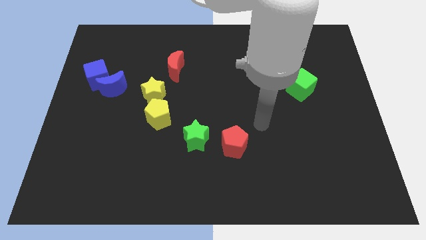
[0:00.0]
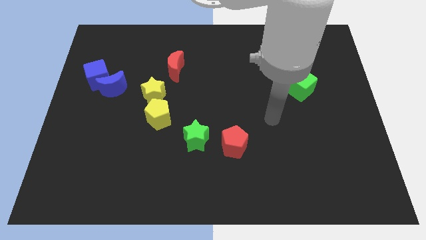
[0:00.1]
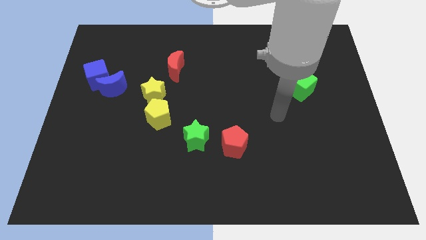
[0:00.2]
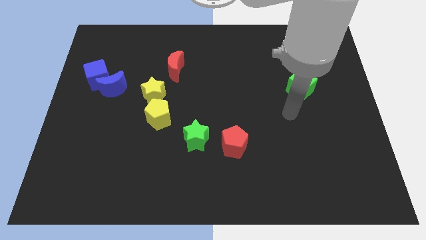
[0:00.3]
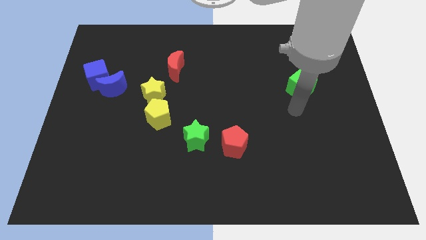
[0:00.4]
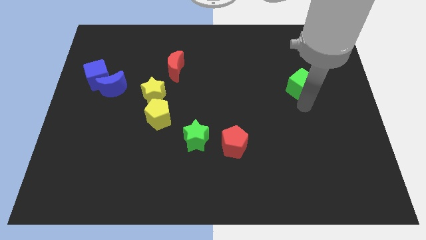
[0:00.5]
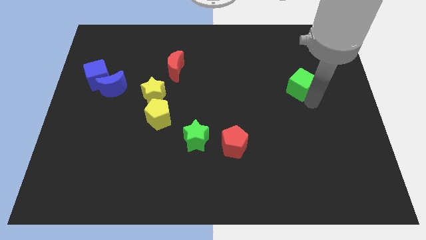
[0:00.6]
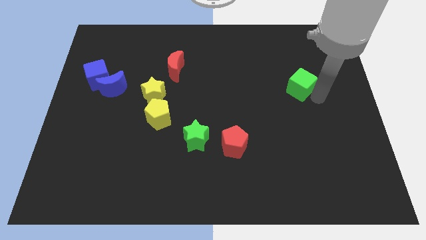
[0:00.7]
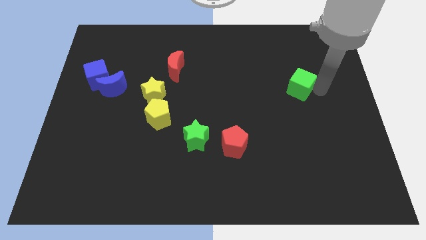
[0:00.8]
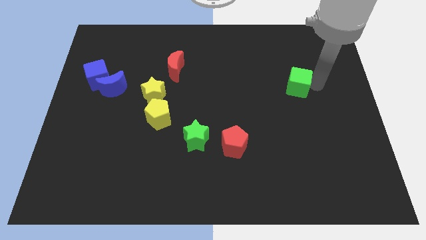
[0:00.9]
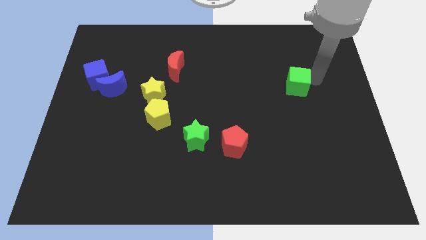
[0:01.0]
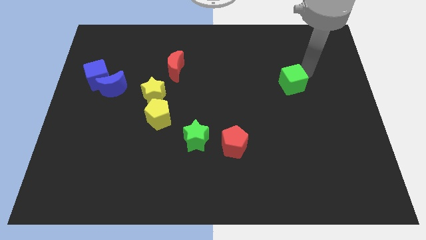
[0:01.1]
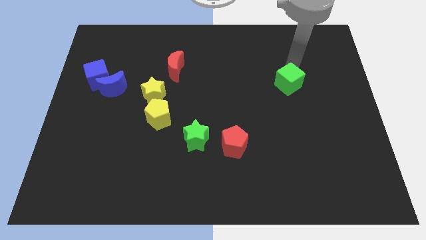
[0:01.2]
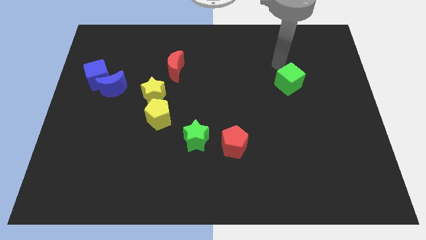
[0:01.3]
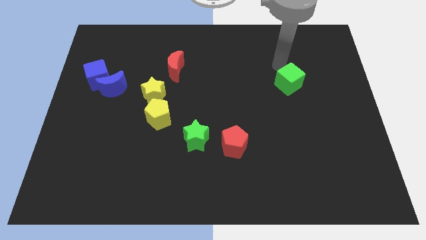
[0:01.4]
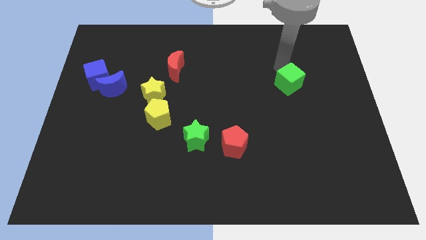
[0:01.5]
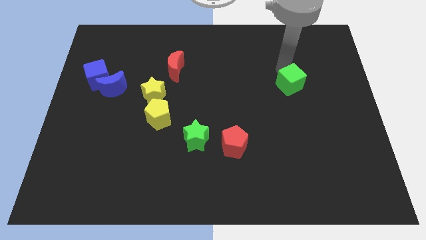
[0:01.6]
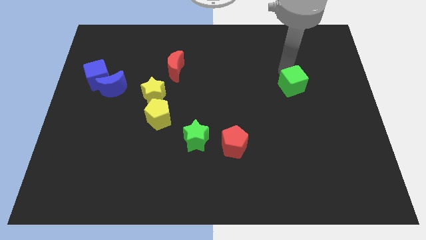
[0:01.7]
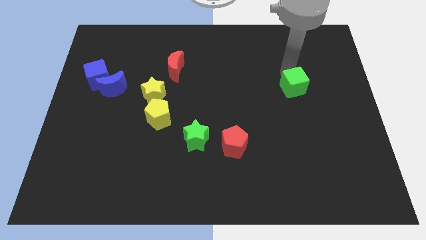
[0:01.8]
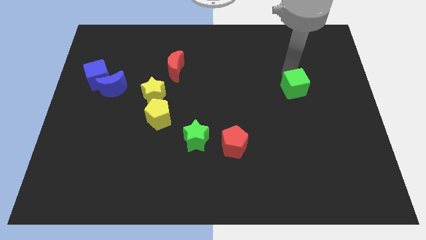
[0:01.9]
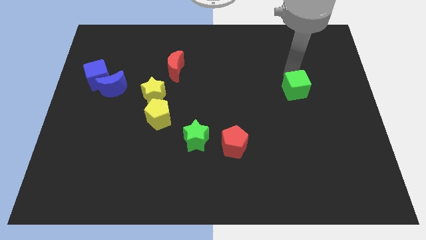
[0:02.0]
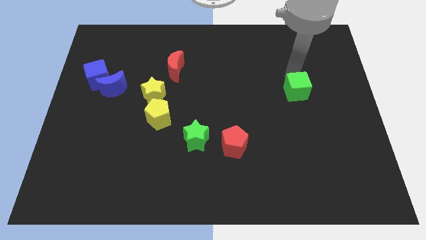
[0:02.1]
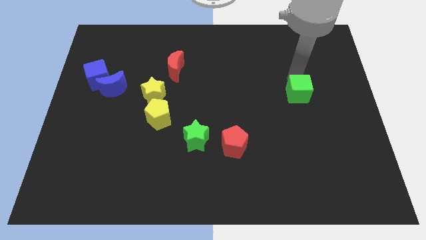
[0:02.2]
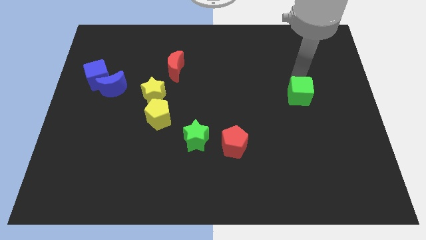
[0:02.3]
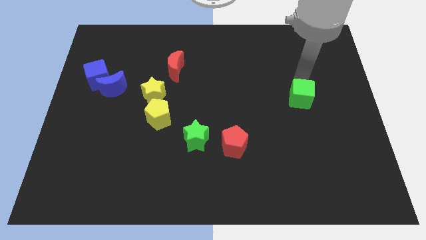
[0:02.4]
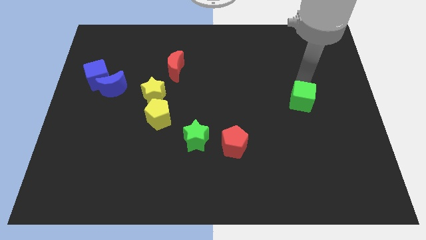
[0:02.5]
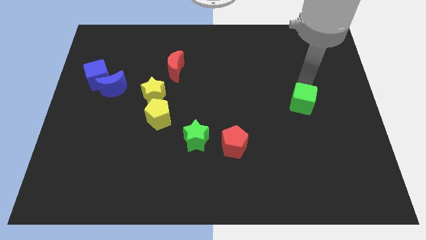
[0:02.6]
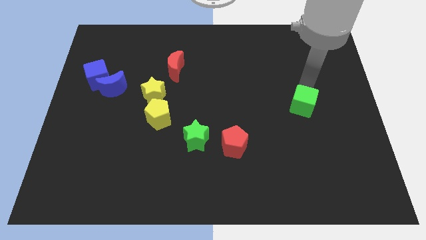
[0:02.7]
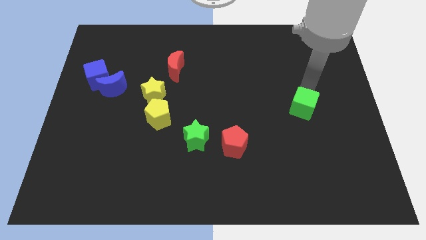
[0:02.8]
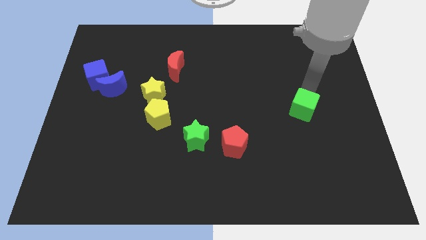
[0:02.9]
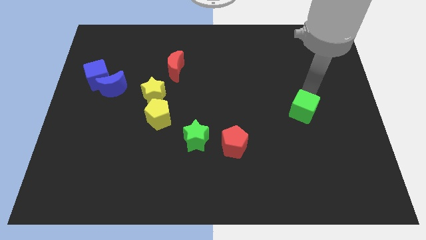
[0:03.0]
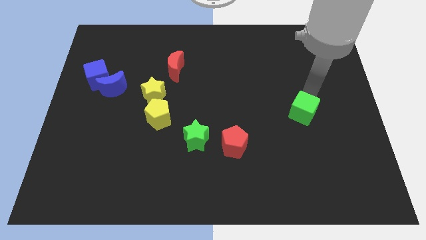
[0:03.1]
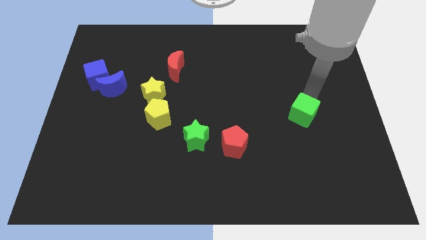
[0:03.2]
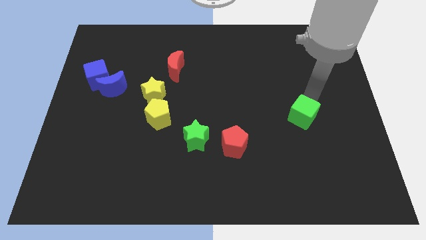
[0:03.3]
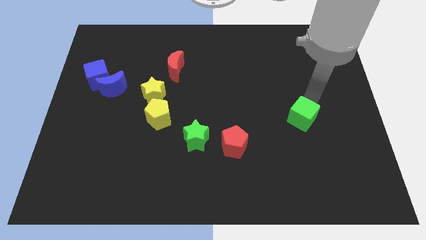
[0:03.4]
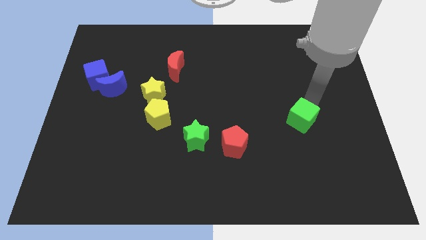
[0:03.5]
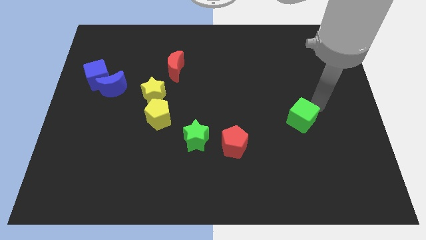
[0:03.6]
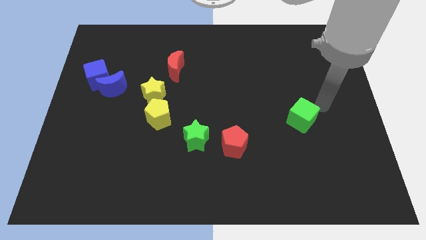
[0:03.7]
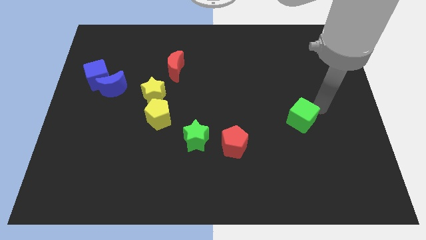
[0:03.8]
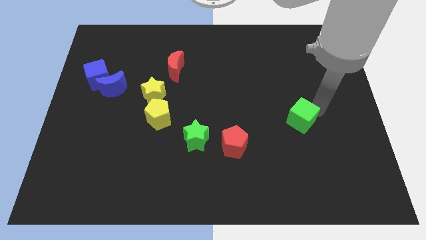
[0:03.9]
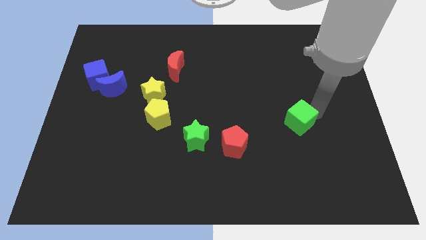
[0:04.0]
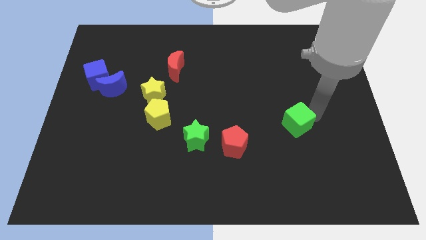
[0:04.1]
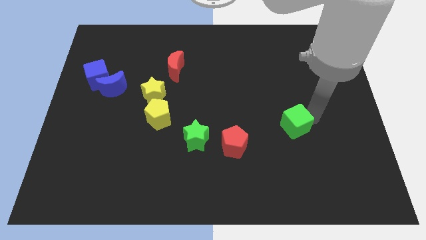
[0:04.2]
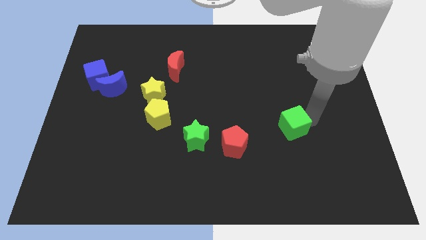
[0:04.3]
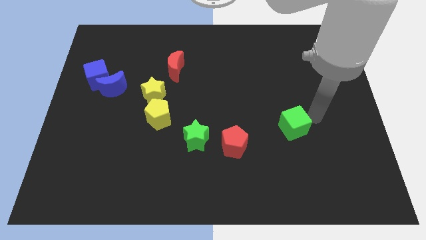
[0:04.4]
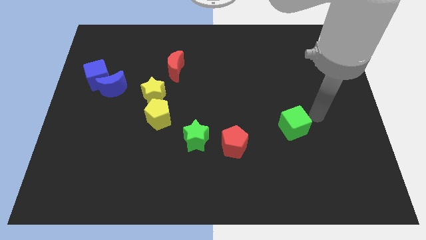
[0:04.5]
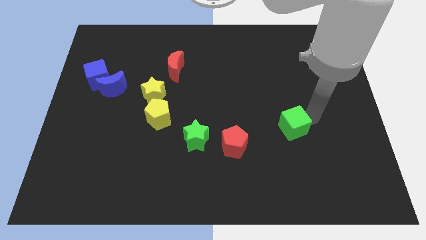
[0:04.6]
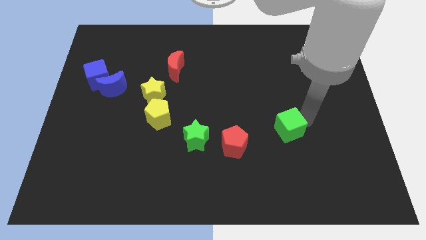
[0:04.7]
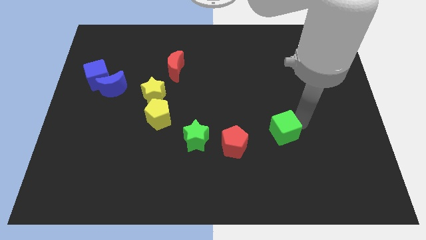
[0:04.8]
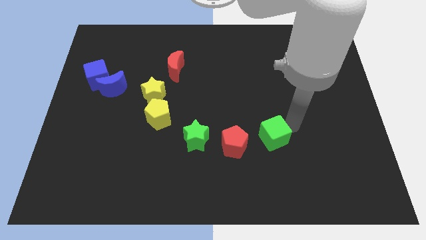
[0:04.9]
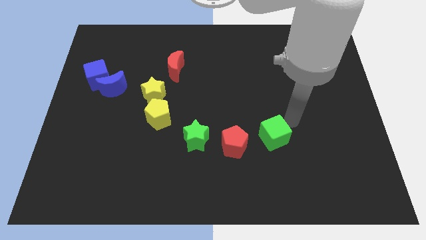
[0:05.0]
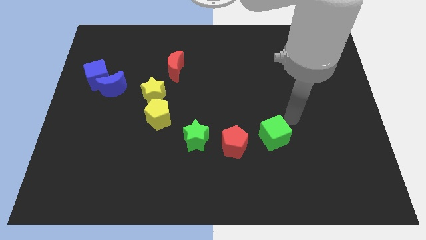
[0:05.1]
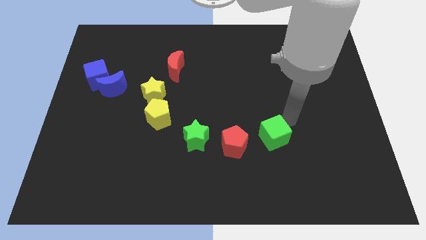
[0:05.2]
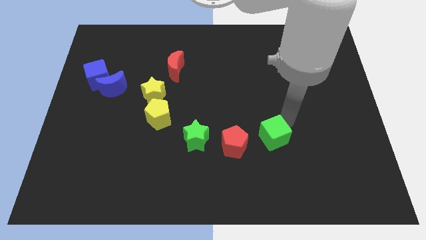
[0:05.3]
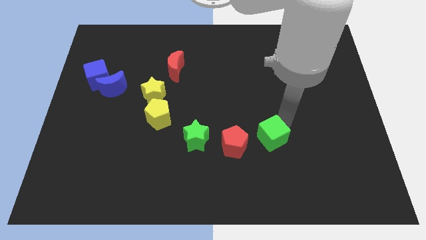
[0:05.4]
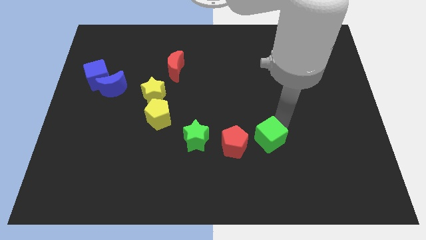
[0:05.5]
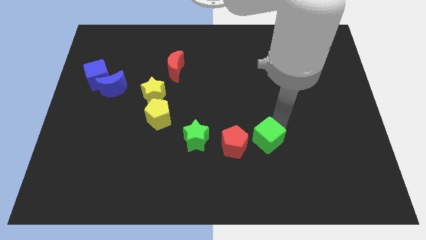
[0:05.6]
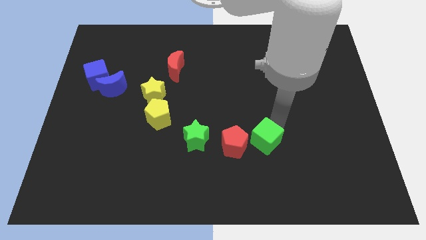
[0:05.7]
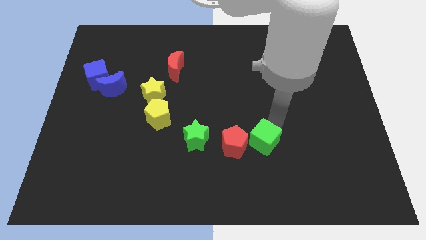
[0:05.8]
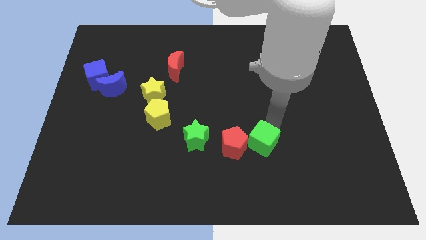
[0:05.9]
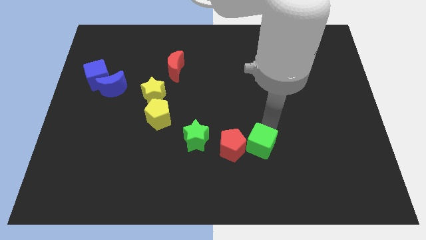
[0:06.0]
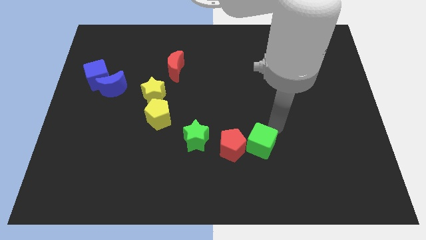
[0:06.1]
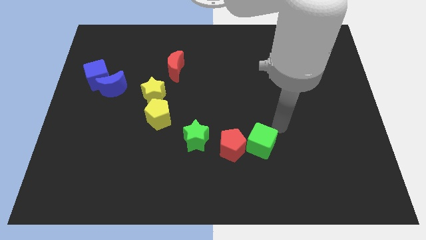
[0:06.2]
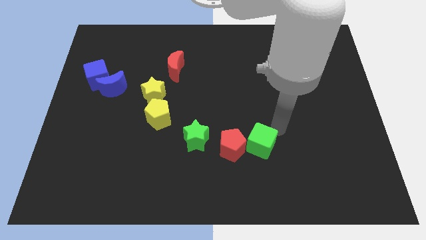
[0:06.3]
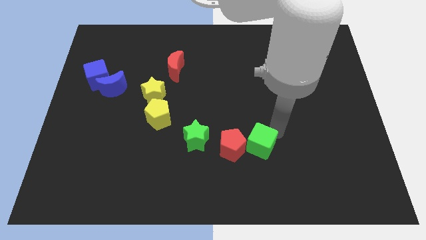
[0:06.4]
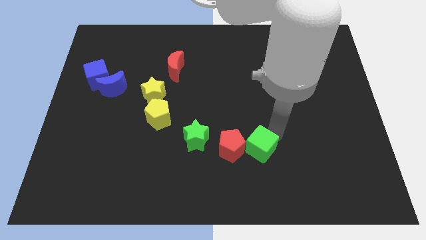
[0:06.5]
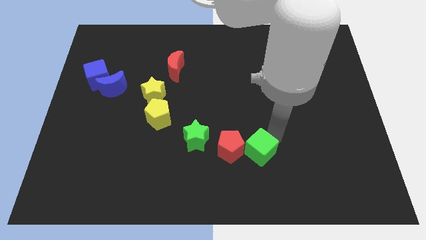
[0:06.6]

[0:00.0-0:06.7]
push the green cube downwards and to the left

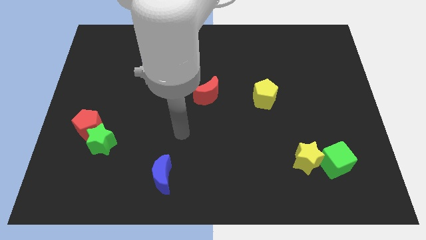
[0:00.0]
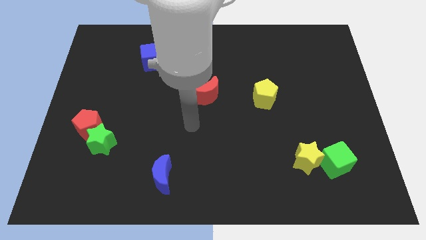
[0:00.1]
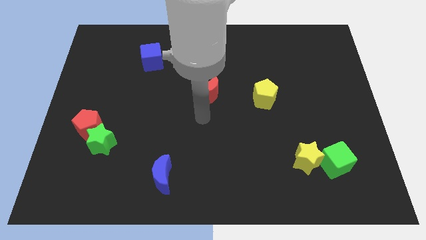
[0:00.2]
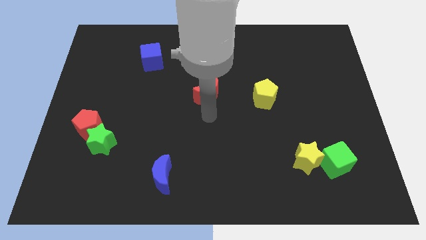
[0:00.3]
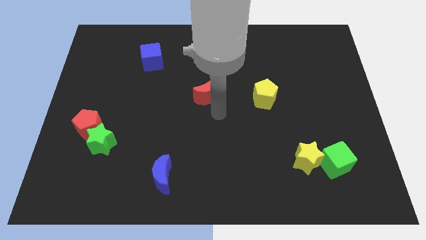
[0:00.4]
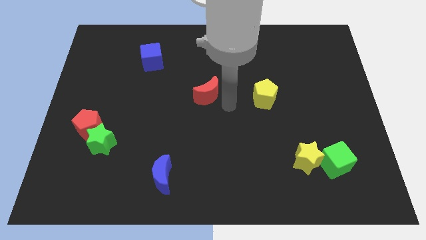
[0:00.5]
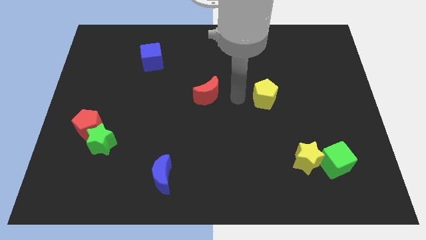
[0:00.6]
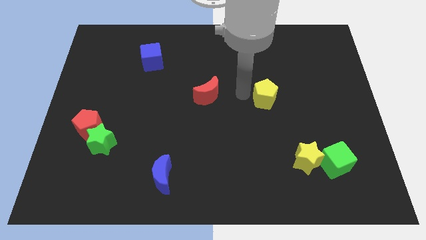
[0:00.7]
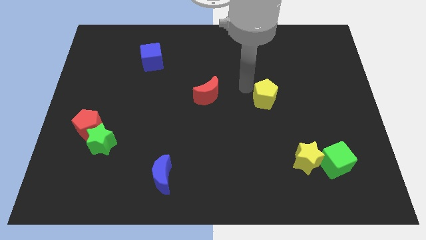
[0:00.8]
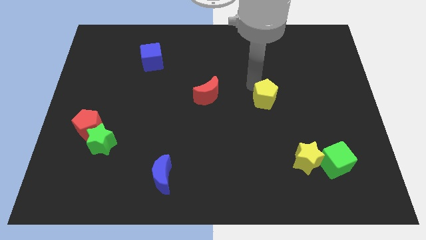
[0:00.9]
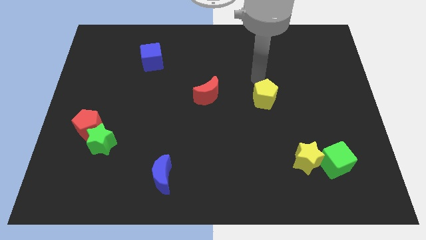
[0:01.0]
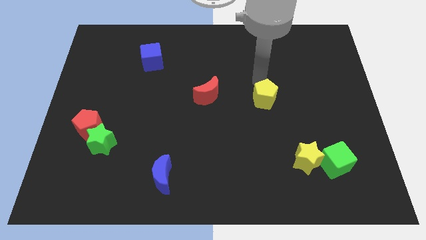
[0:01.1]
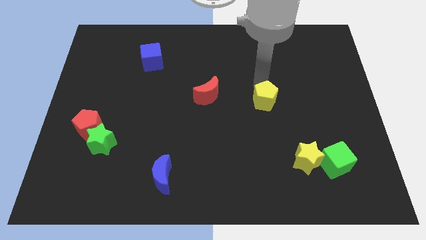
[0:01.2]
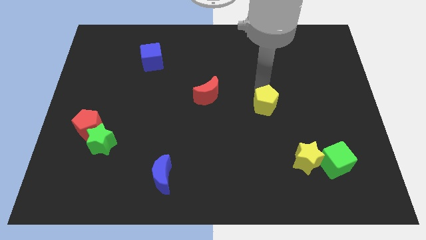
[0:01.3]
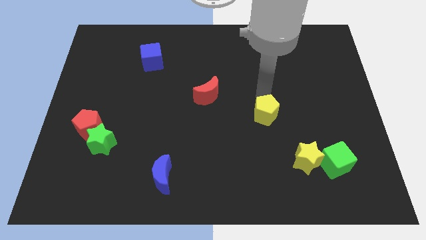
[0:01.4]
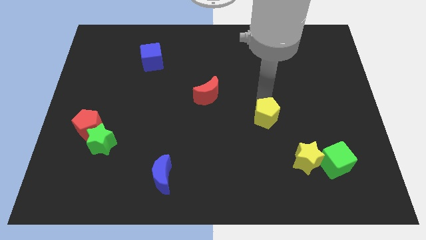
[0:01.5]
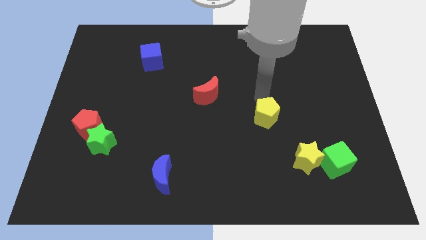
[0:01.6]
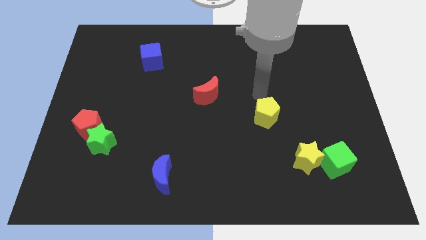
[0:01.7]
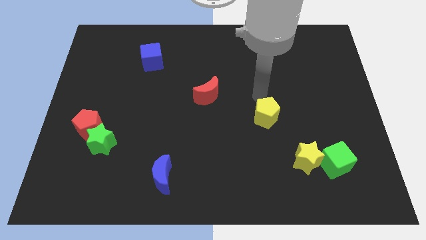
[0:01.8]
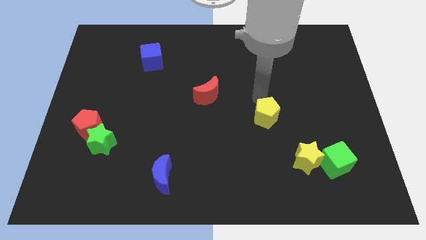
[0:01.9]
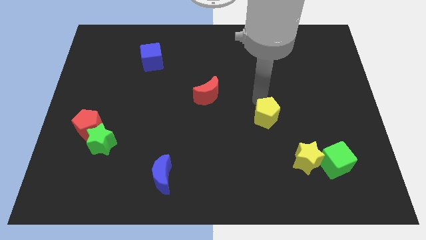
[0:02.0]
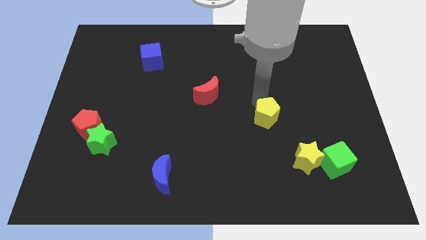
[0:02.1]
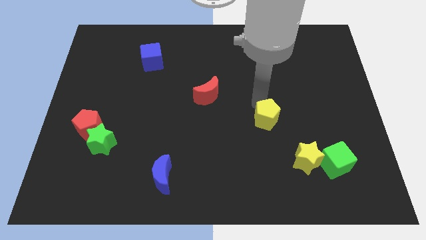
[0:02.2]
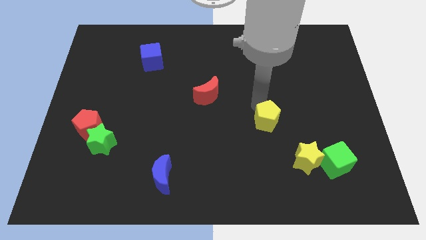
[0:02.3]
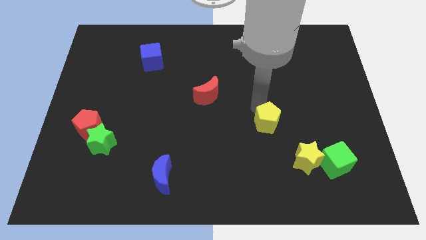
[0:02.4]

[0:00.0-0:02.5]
push the yellow pentagon downwards a little
